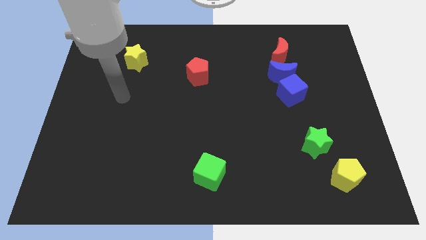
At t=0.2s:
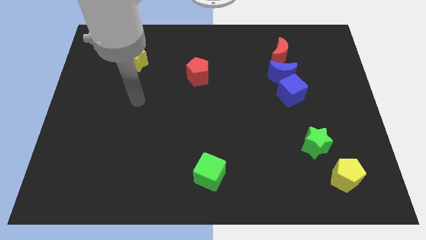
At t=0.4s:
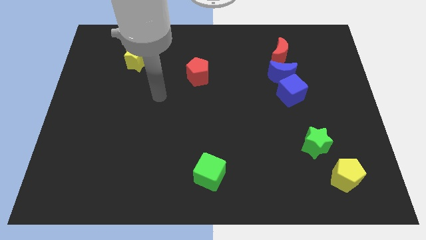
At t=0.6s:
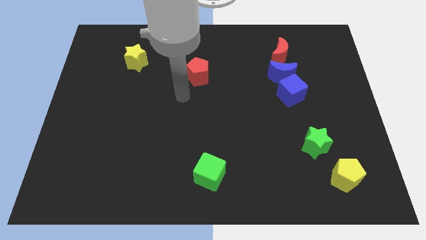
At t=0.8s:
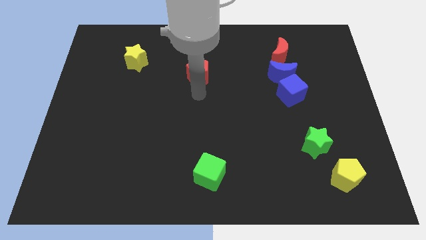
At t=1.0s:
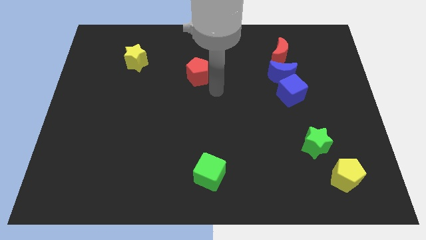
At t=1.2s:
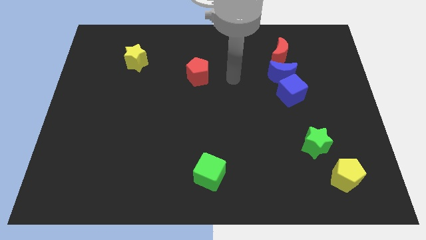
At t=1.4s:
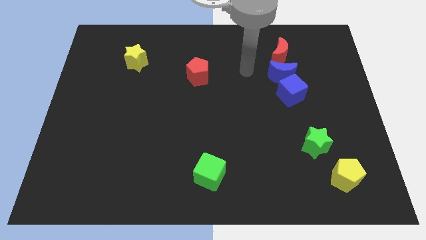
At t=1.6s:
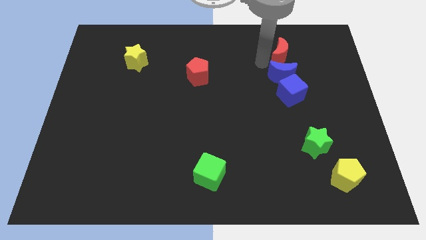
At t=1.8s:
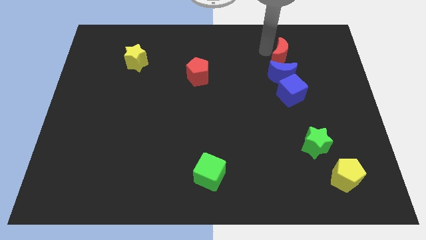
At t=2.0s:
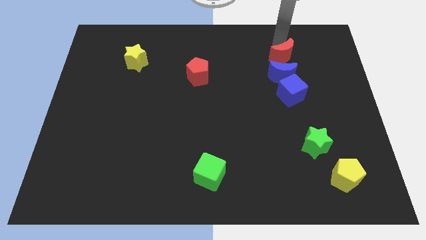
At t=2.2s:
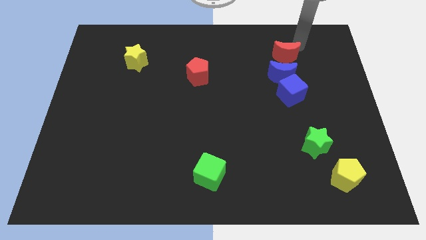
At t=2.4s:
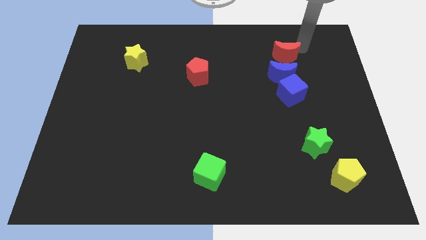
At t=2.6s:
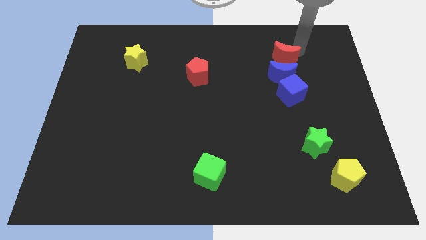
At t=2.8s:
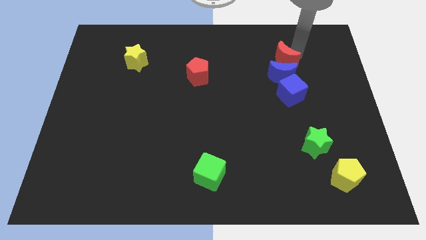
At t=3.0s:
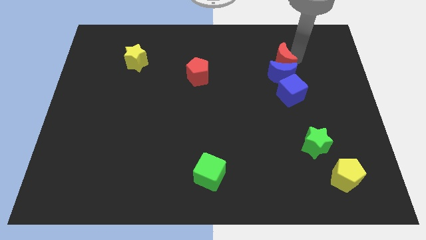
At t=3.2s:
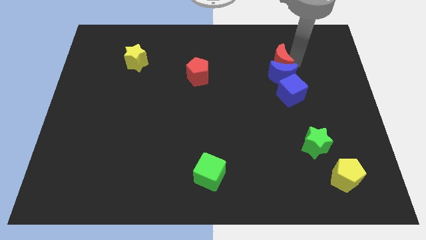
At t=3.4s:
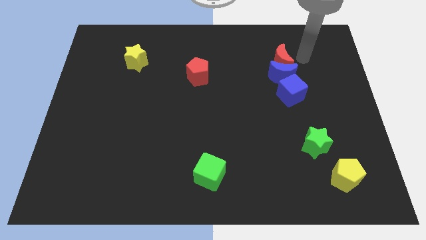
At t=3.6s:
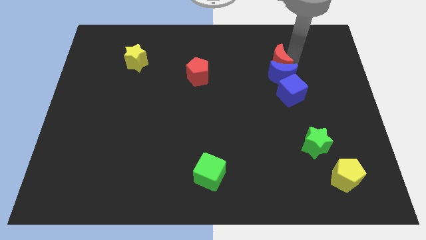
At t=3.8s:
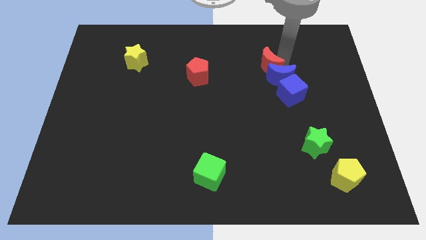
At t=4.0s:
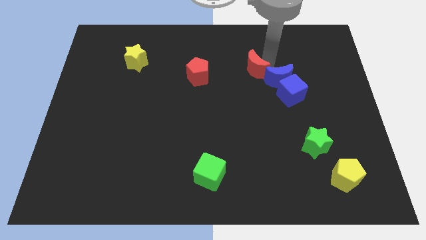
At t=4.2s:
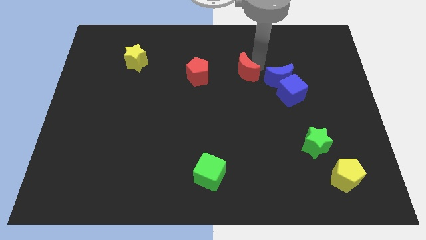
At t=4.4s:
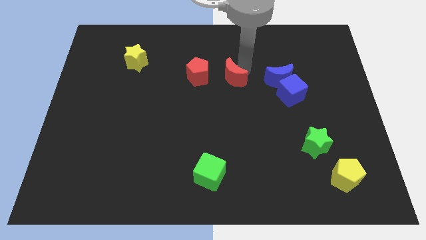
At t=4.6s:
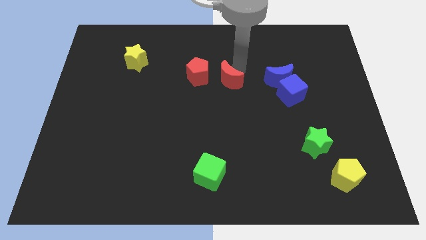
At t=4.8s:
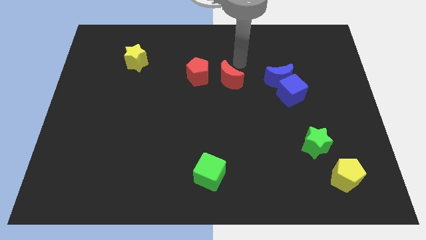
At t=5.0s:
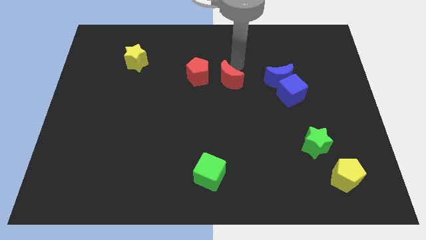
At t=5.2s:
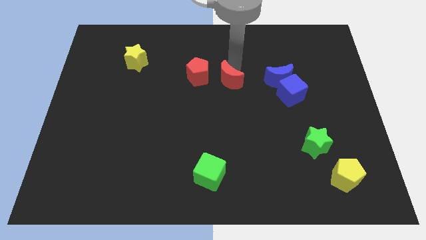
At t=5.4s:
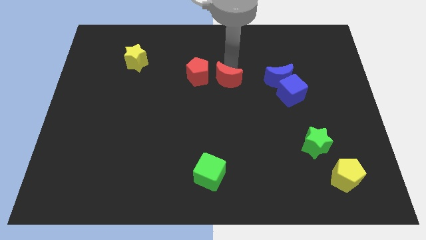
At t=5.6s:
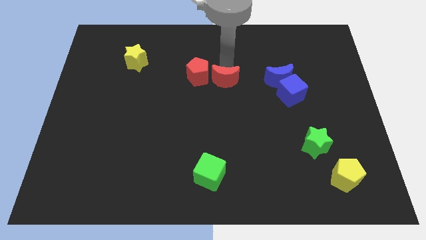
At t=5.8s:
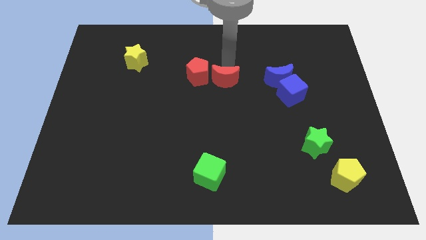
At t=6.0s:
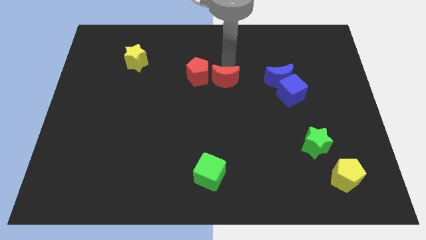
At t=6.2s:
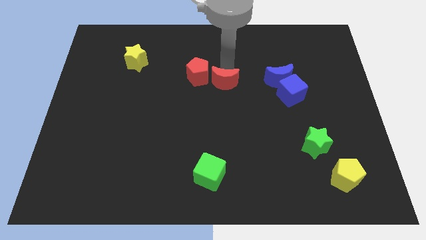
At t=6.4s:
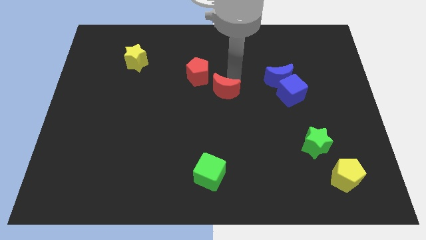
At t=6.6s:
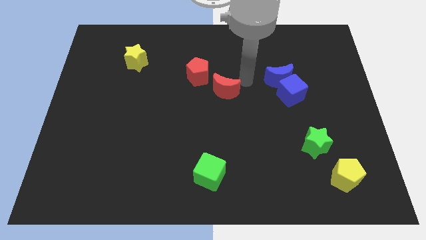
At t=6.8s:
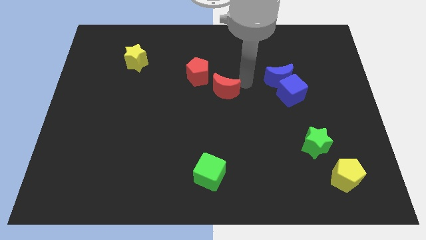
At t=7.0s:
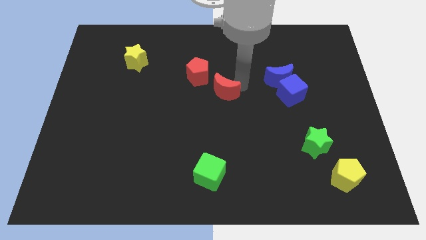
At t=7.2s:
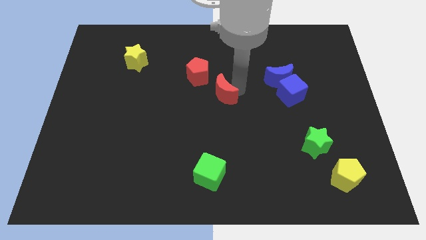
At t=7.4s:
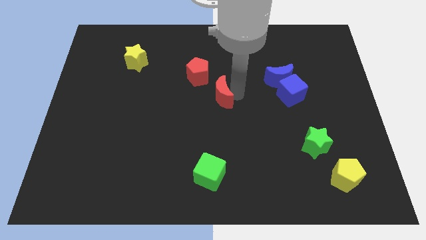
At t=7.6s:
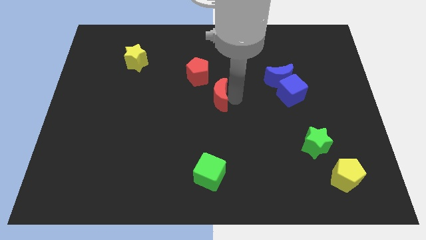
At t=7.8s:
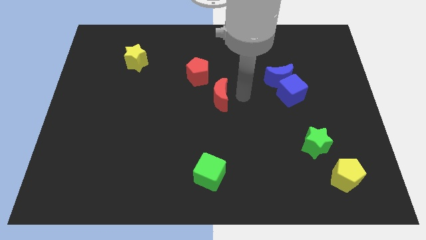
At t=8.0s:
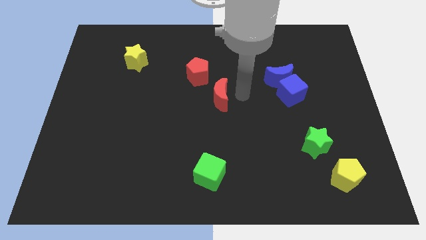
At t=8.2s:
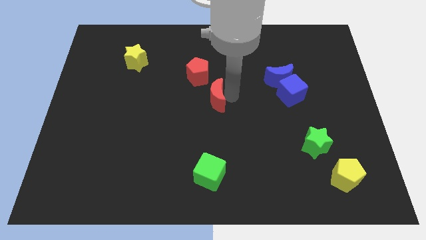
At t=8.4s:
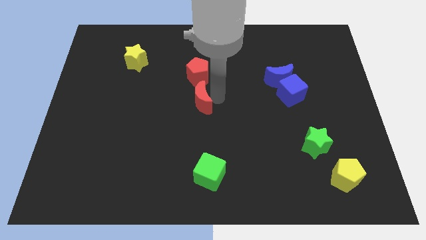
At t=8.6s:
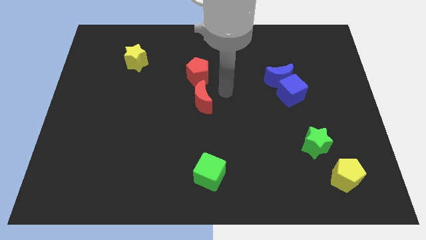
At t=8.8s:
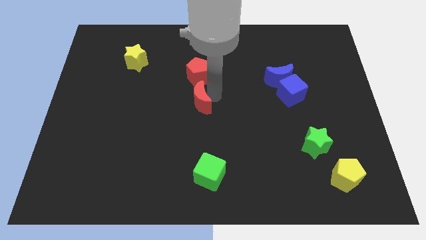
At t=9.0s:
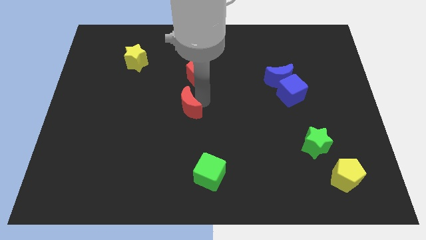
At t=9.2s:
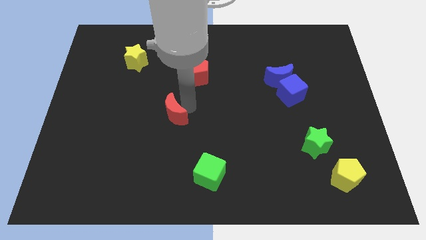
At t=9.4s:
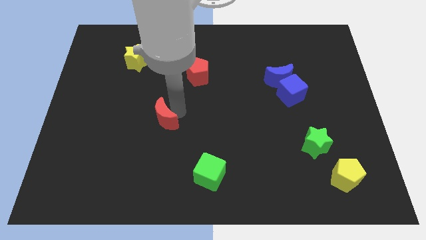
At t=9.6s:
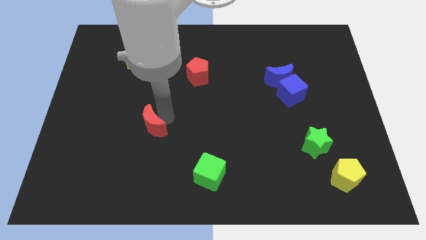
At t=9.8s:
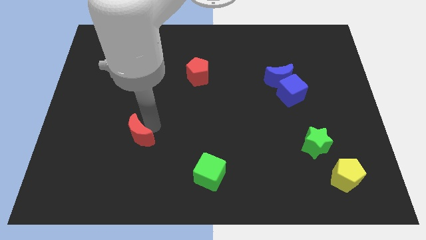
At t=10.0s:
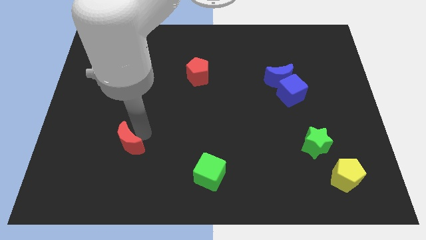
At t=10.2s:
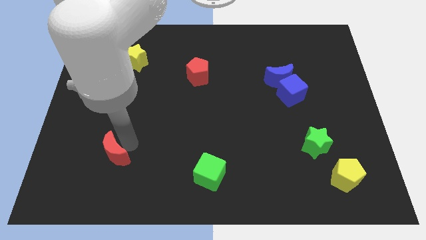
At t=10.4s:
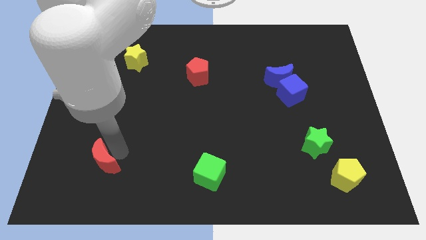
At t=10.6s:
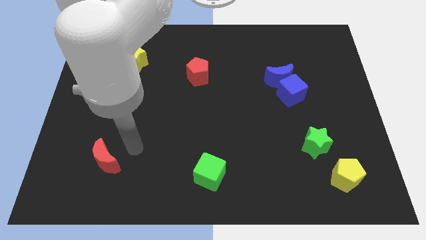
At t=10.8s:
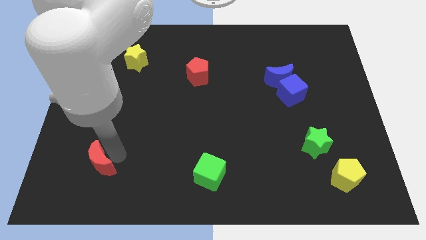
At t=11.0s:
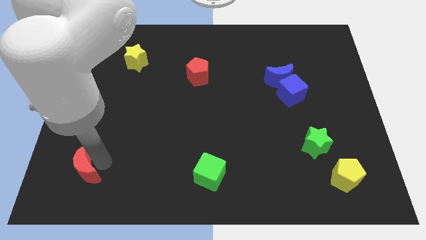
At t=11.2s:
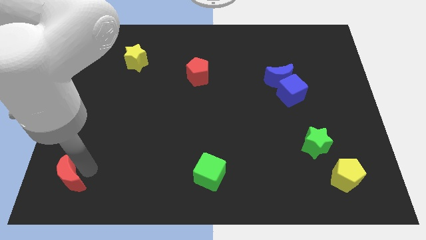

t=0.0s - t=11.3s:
move the red moon to the bottom left of the board
